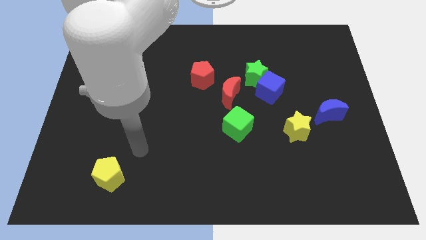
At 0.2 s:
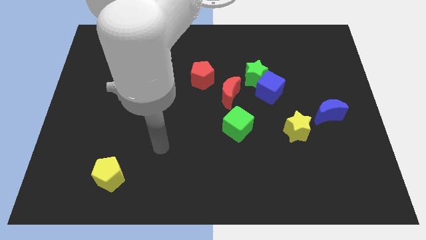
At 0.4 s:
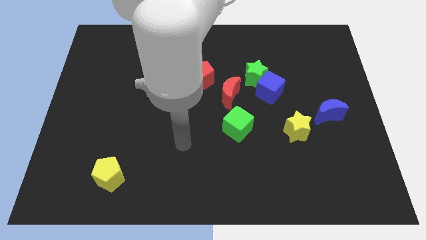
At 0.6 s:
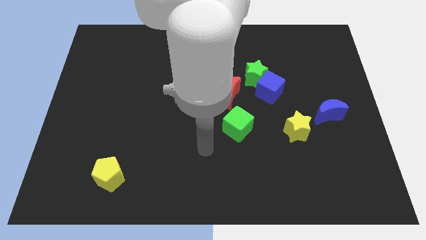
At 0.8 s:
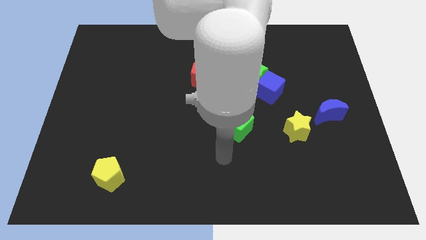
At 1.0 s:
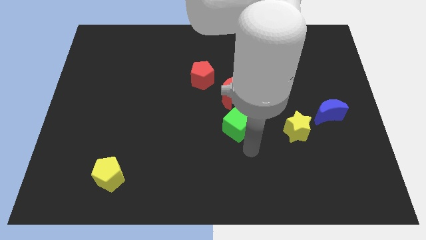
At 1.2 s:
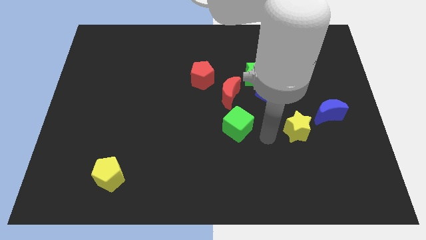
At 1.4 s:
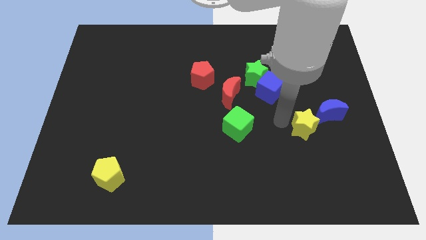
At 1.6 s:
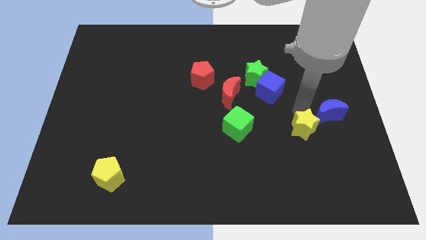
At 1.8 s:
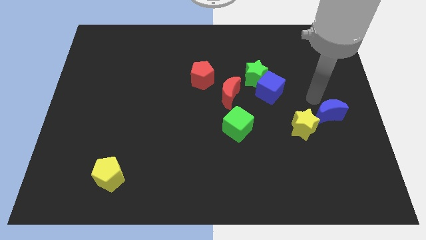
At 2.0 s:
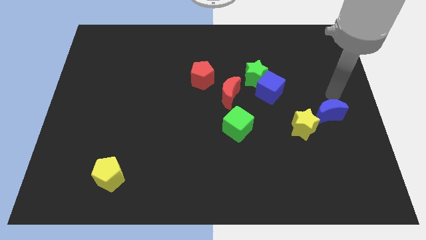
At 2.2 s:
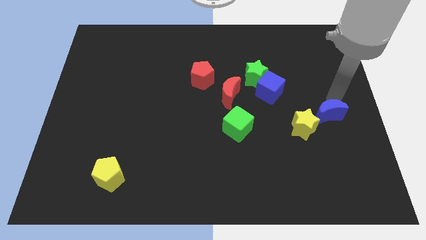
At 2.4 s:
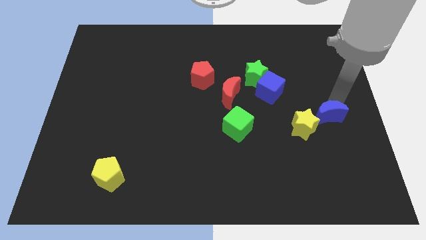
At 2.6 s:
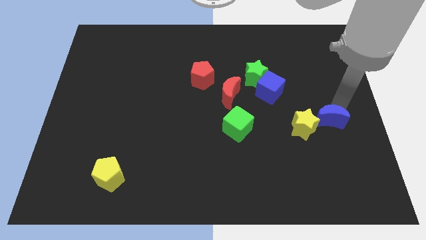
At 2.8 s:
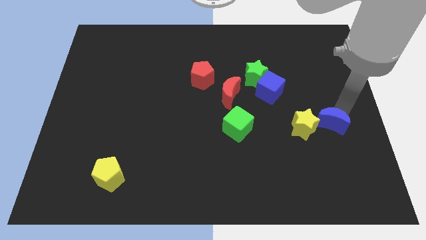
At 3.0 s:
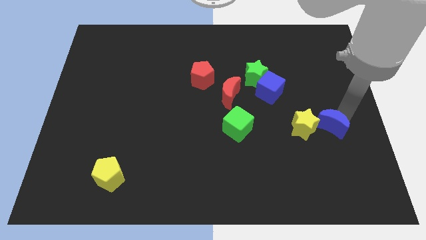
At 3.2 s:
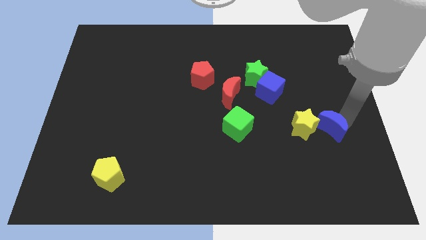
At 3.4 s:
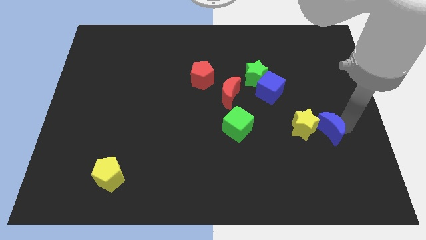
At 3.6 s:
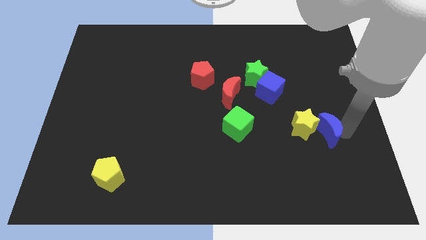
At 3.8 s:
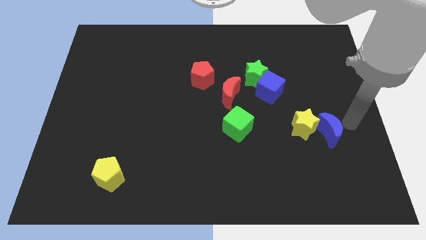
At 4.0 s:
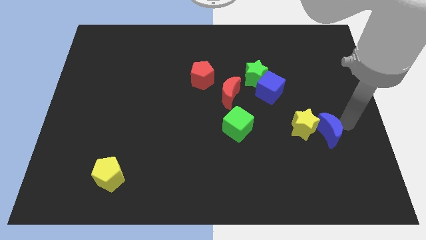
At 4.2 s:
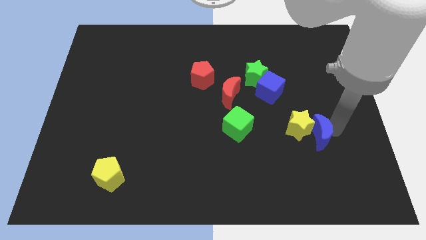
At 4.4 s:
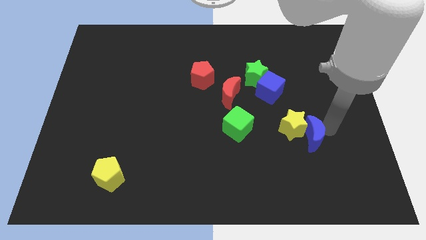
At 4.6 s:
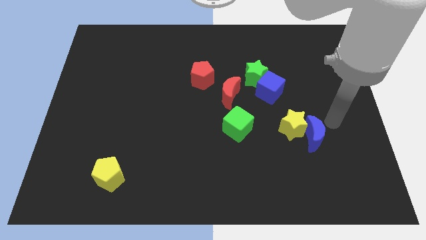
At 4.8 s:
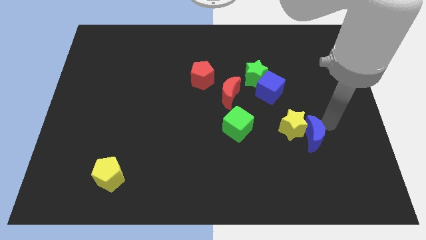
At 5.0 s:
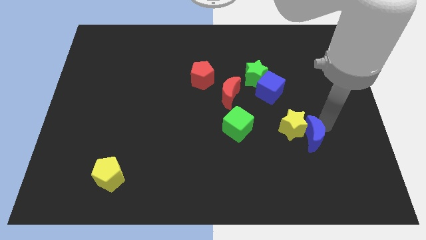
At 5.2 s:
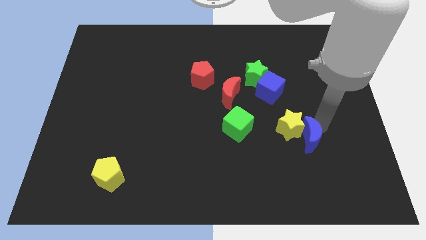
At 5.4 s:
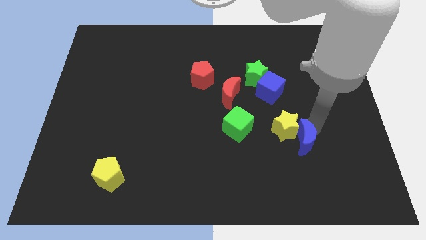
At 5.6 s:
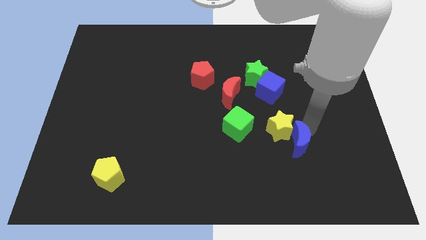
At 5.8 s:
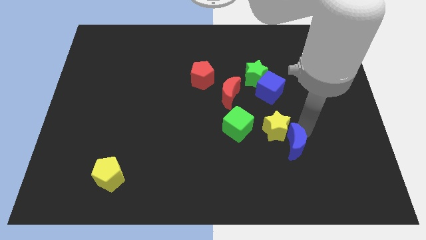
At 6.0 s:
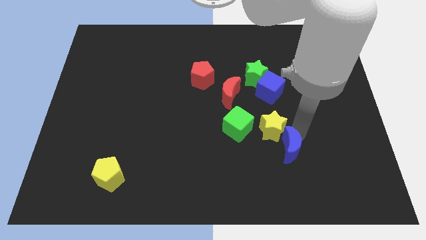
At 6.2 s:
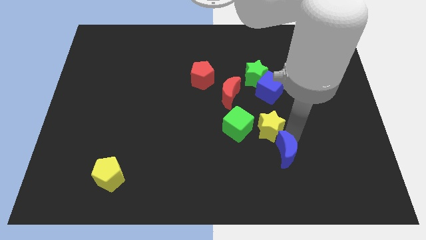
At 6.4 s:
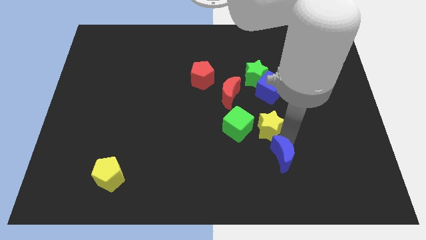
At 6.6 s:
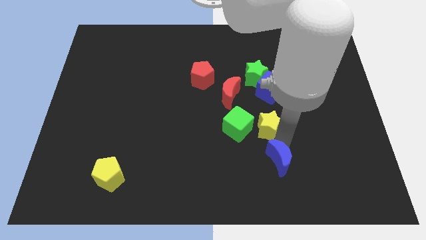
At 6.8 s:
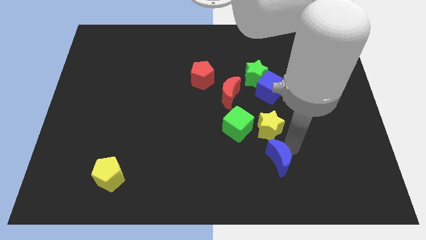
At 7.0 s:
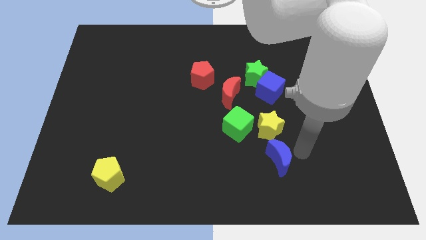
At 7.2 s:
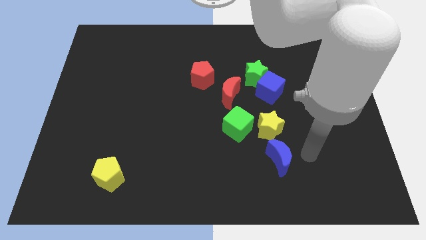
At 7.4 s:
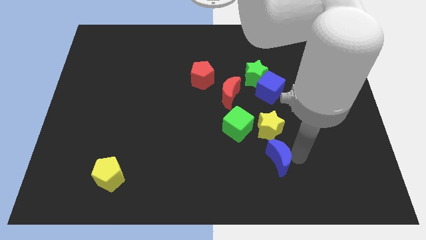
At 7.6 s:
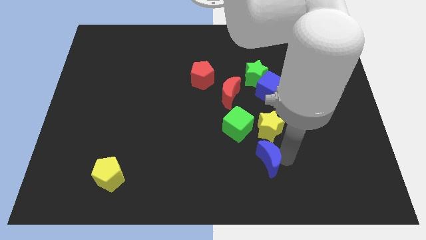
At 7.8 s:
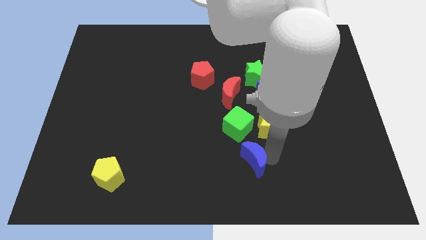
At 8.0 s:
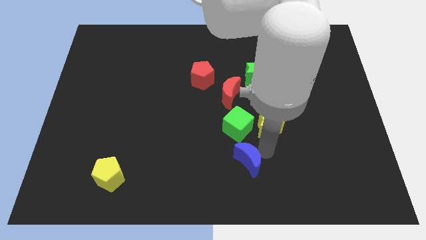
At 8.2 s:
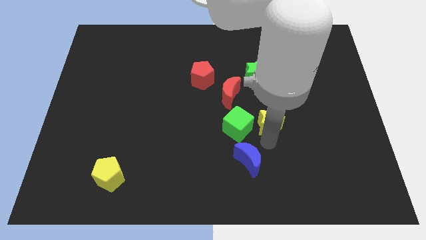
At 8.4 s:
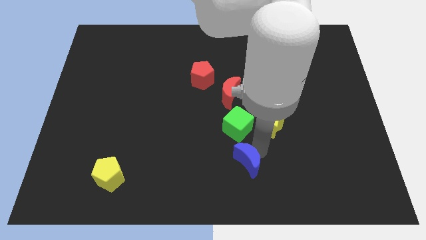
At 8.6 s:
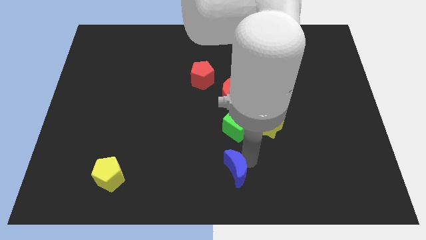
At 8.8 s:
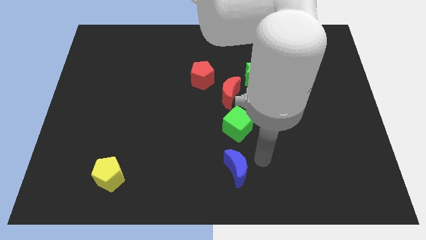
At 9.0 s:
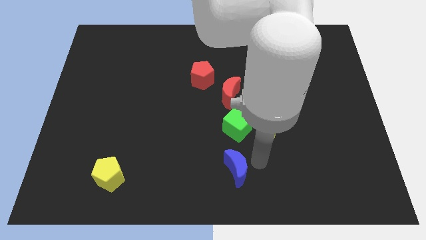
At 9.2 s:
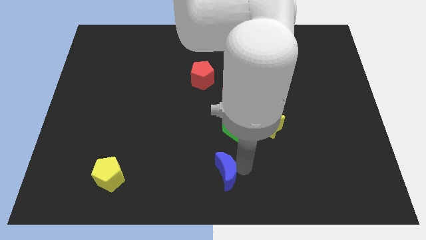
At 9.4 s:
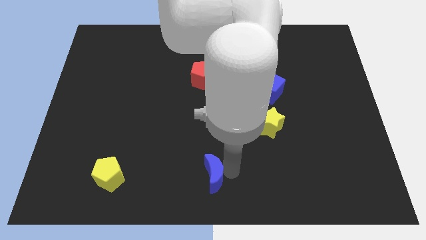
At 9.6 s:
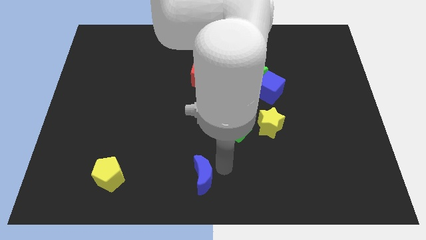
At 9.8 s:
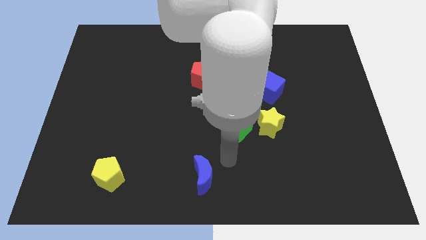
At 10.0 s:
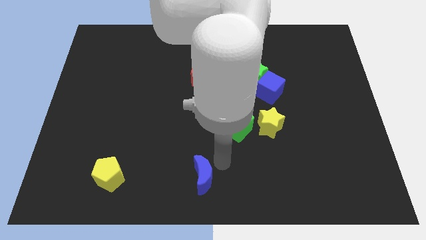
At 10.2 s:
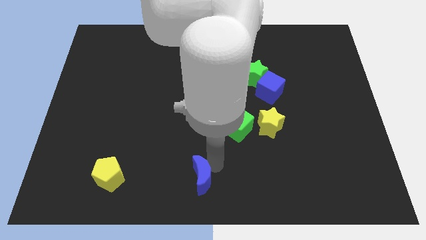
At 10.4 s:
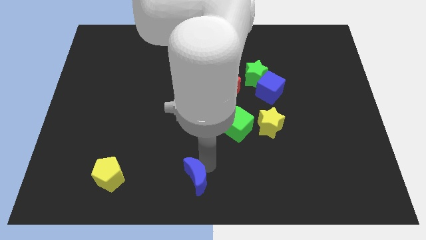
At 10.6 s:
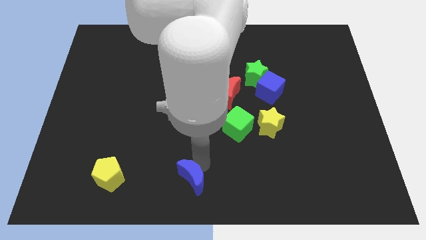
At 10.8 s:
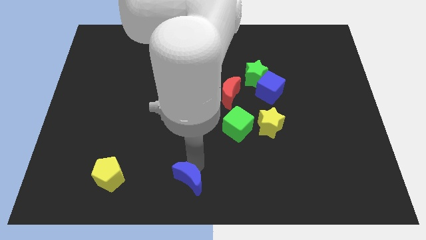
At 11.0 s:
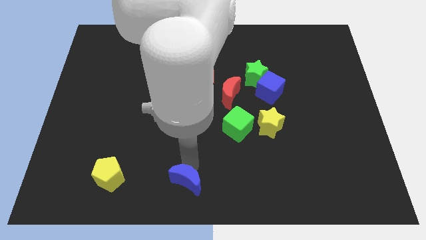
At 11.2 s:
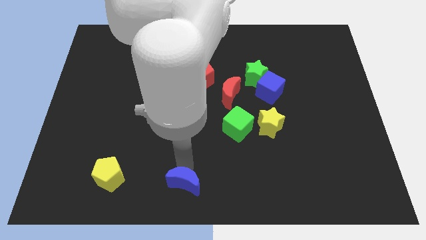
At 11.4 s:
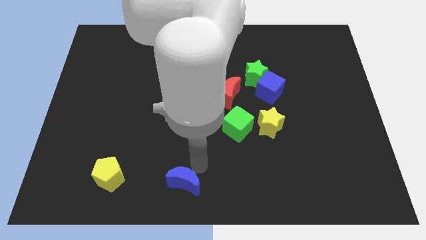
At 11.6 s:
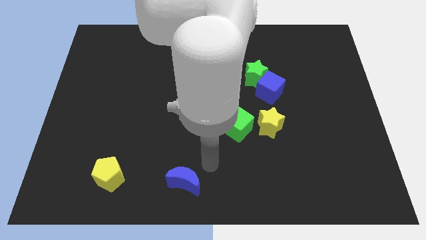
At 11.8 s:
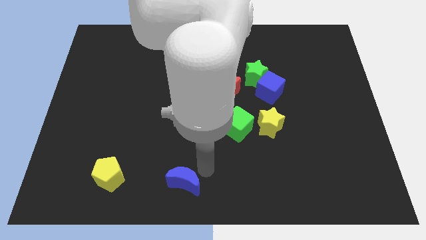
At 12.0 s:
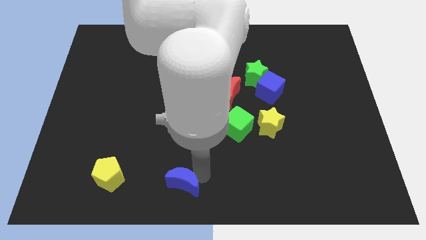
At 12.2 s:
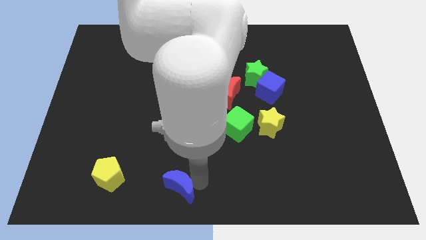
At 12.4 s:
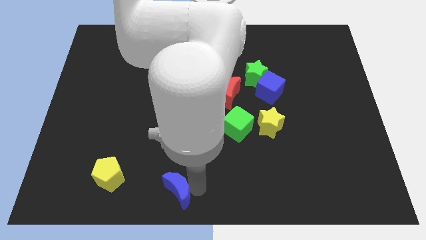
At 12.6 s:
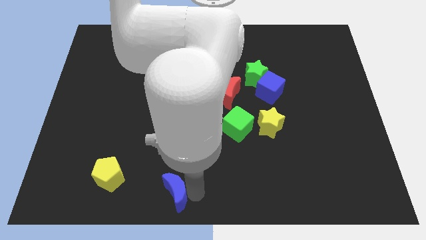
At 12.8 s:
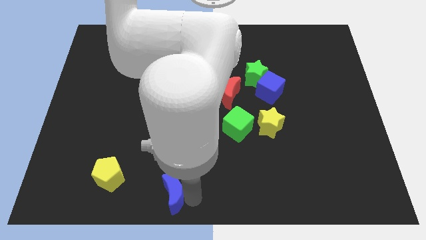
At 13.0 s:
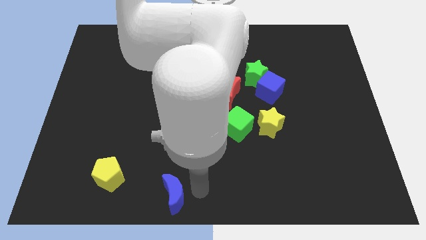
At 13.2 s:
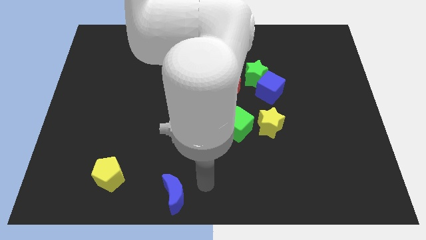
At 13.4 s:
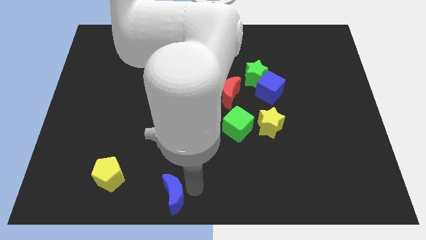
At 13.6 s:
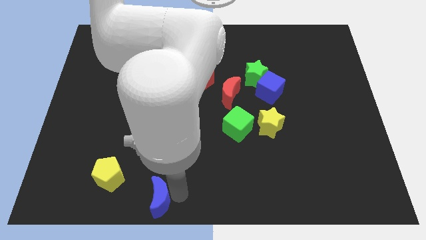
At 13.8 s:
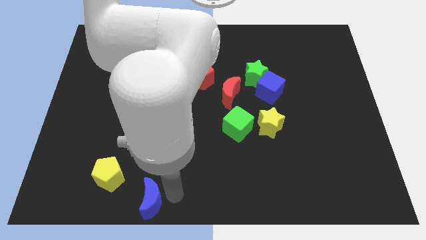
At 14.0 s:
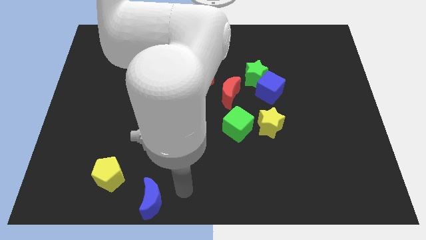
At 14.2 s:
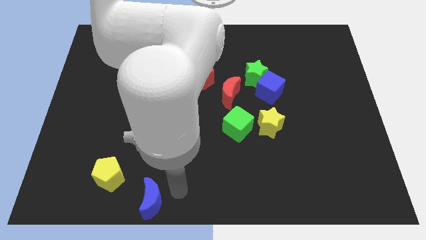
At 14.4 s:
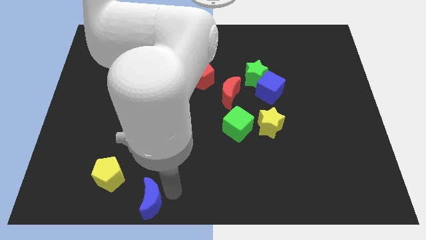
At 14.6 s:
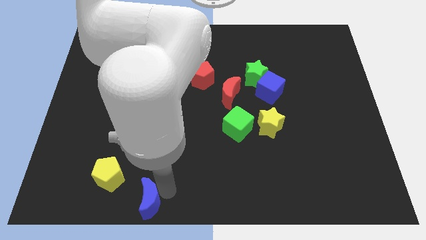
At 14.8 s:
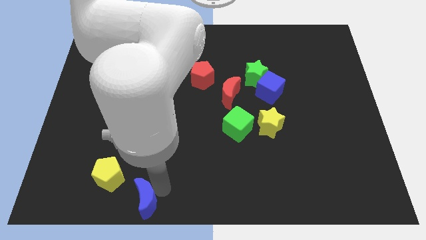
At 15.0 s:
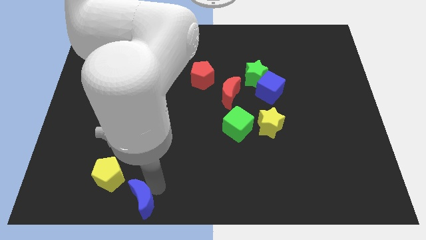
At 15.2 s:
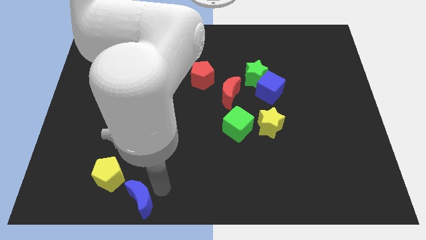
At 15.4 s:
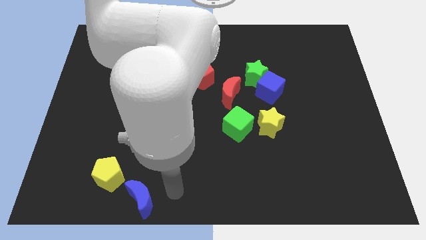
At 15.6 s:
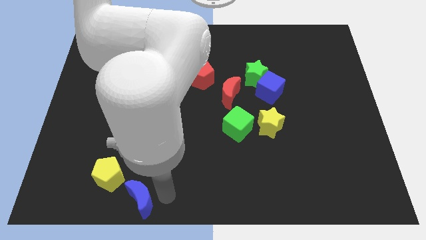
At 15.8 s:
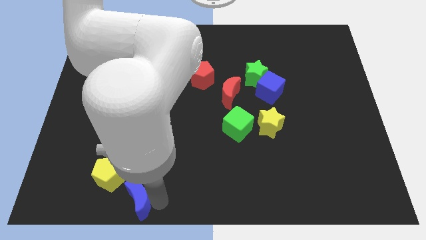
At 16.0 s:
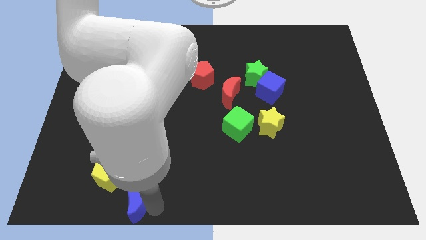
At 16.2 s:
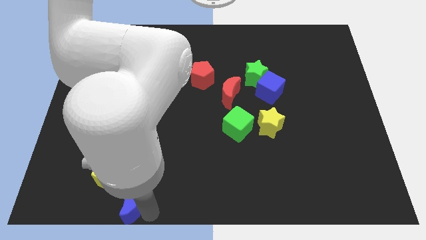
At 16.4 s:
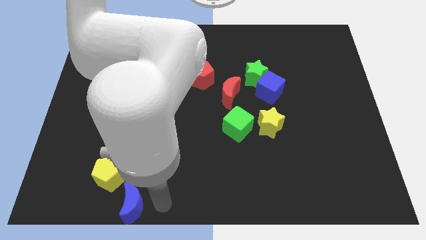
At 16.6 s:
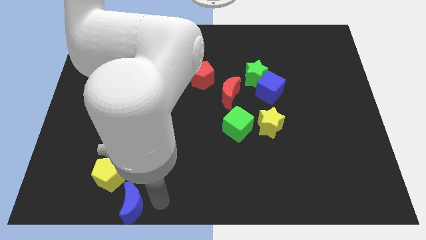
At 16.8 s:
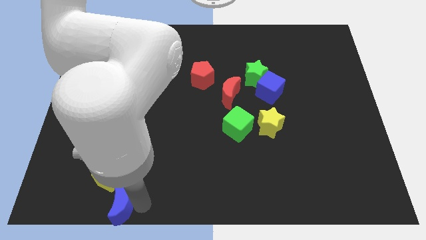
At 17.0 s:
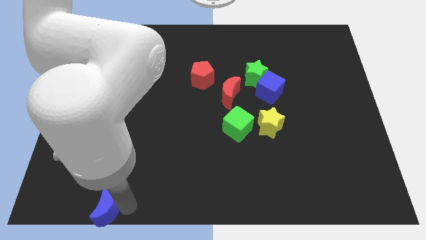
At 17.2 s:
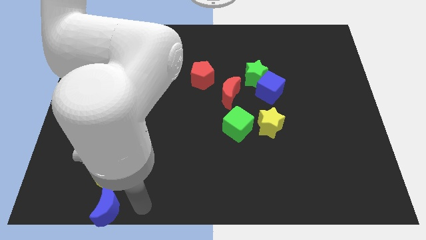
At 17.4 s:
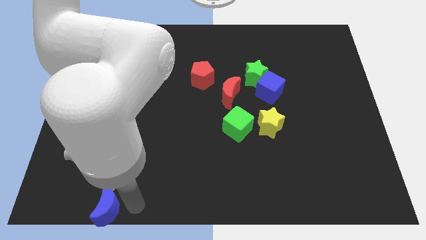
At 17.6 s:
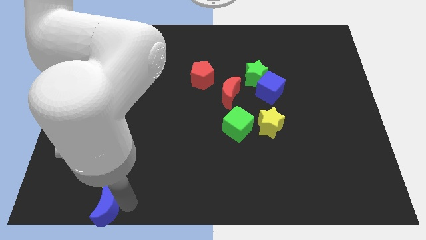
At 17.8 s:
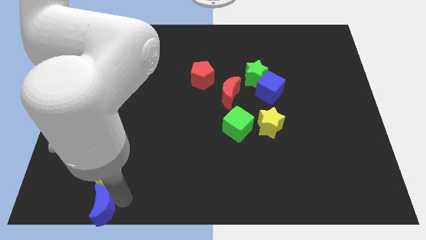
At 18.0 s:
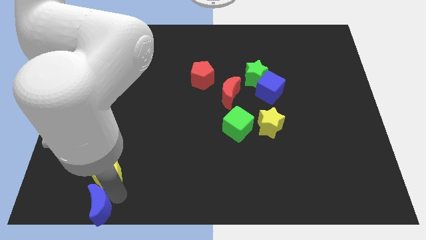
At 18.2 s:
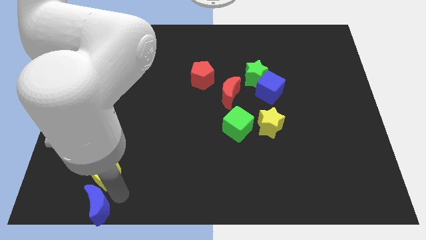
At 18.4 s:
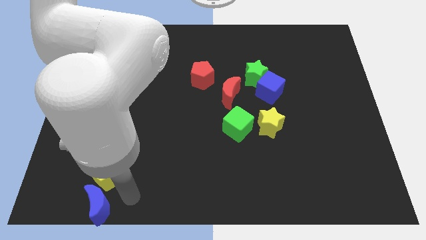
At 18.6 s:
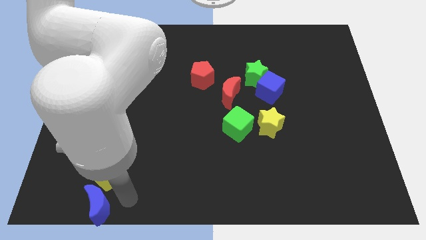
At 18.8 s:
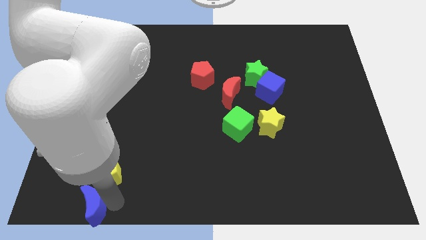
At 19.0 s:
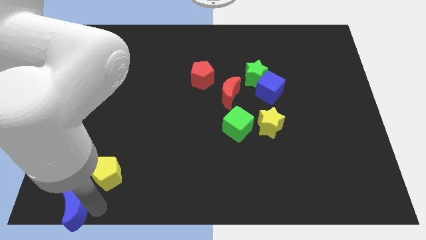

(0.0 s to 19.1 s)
slide the blue moon to the bottom left
